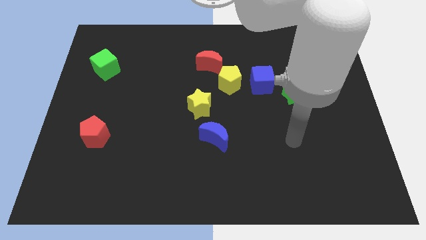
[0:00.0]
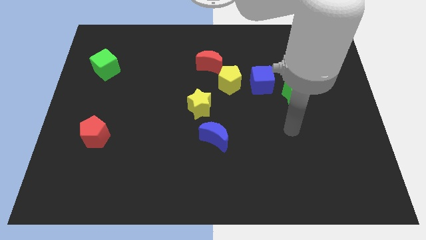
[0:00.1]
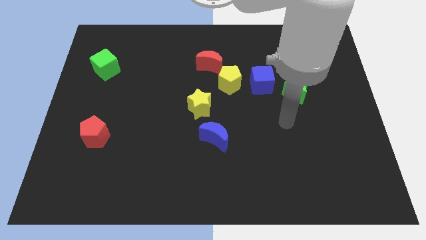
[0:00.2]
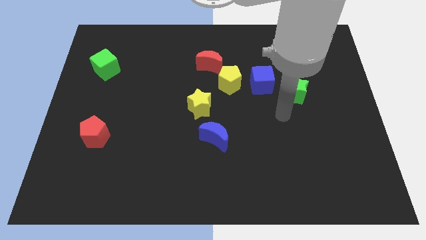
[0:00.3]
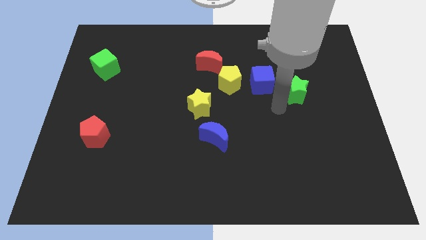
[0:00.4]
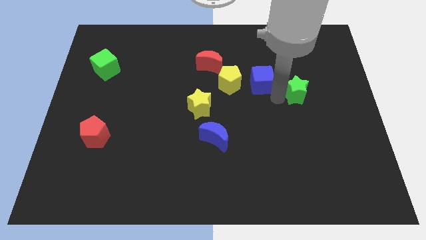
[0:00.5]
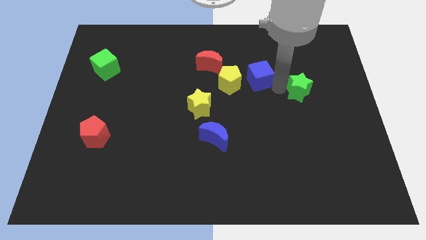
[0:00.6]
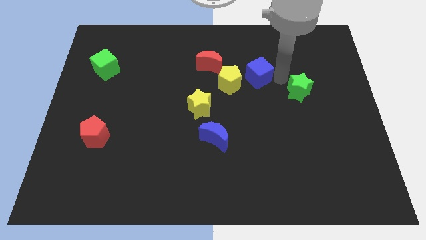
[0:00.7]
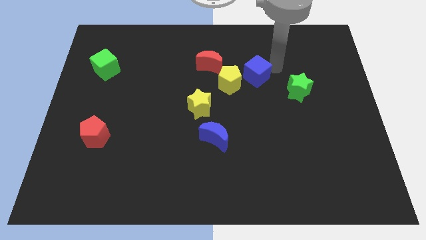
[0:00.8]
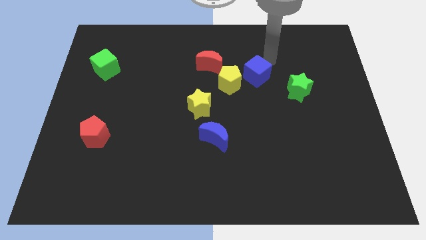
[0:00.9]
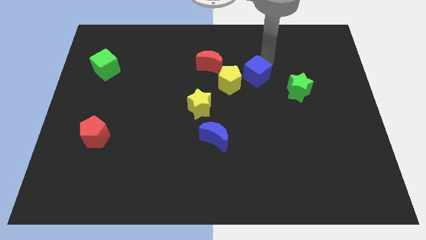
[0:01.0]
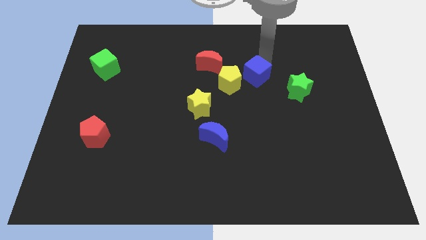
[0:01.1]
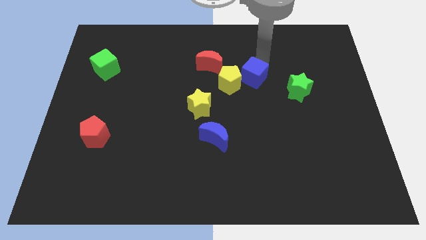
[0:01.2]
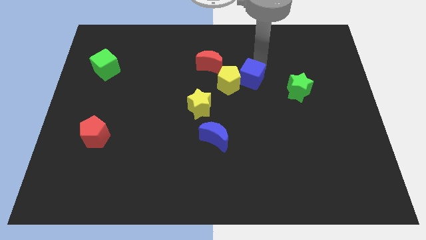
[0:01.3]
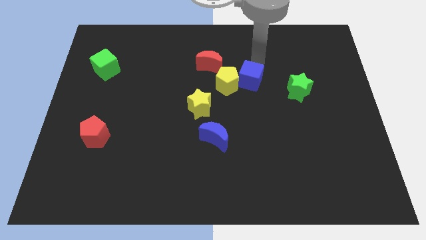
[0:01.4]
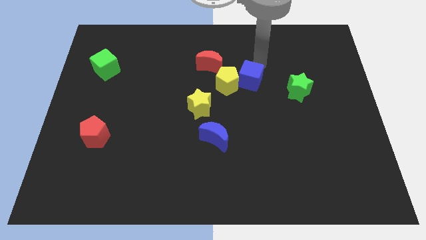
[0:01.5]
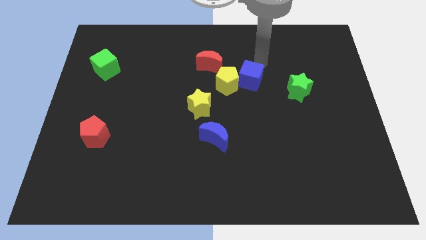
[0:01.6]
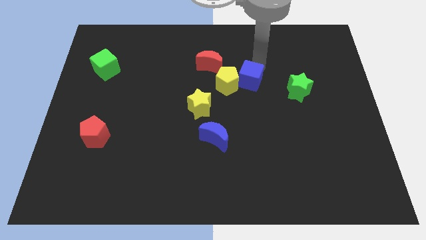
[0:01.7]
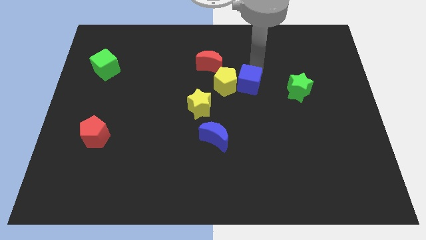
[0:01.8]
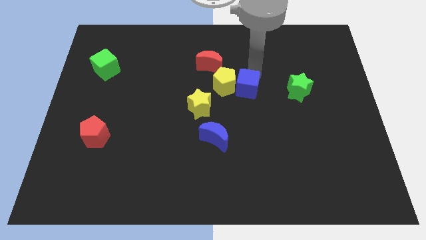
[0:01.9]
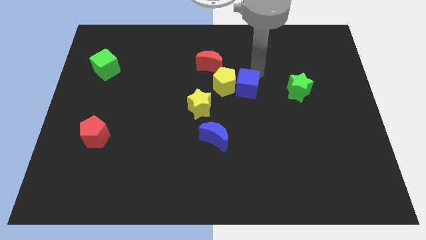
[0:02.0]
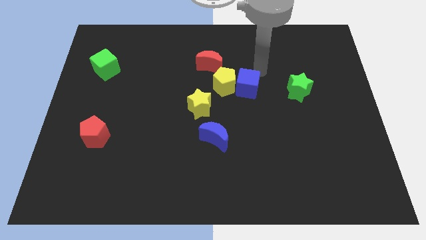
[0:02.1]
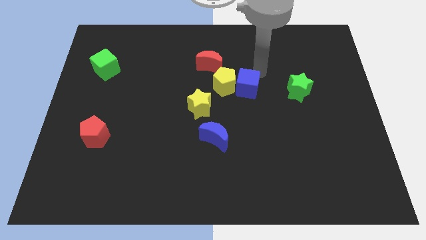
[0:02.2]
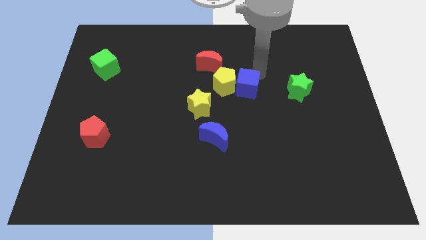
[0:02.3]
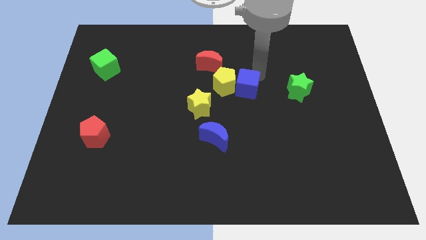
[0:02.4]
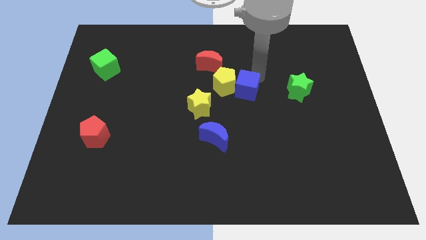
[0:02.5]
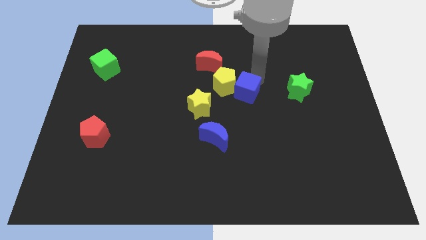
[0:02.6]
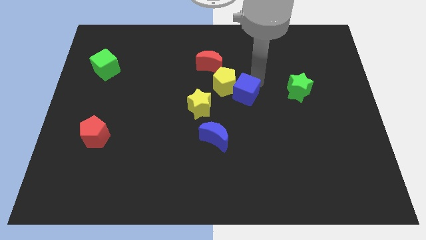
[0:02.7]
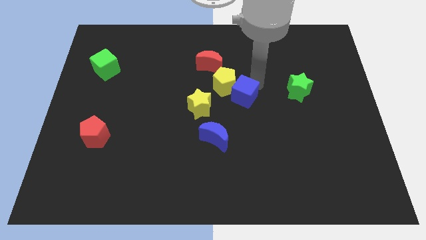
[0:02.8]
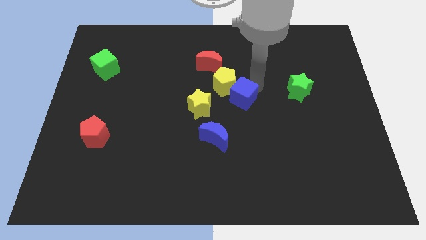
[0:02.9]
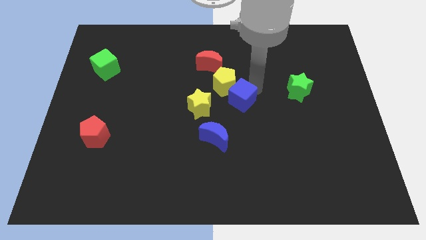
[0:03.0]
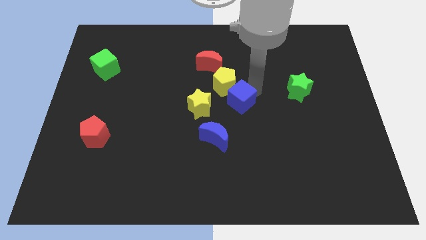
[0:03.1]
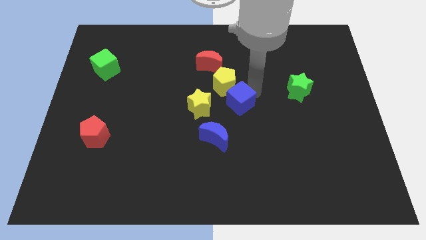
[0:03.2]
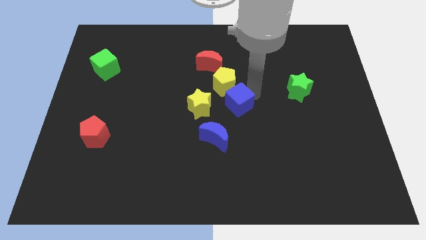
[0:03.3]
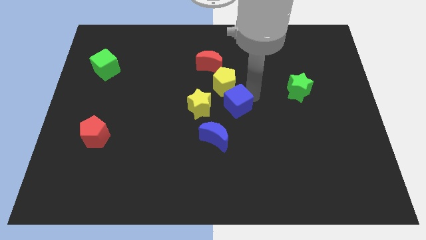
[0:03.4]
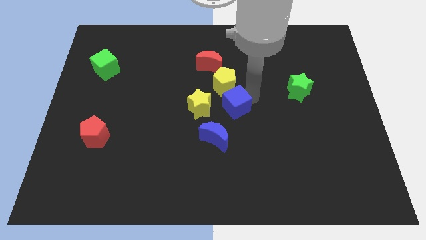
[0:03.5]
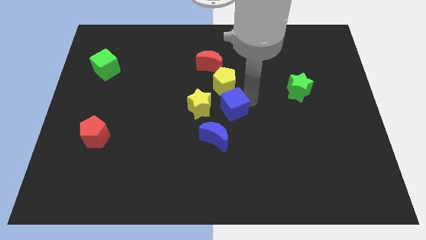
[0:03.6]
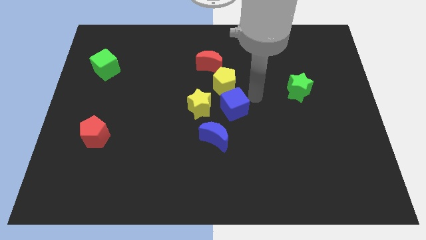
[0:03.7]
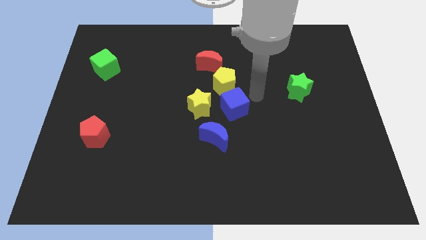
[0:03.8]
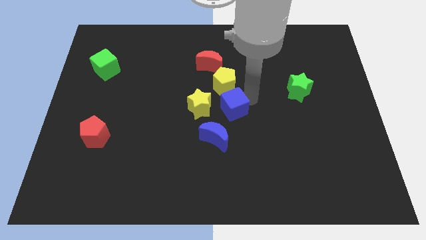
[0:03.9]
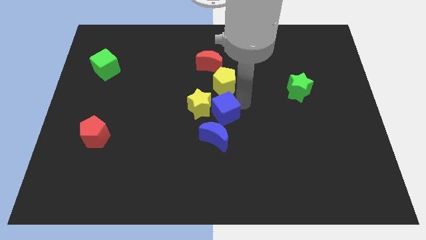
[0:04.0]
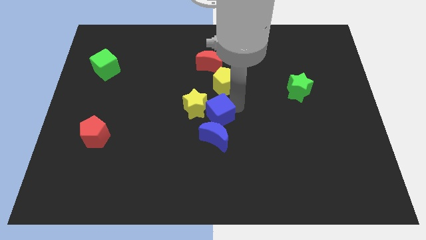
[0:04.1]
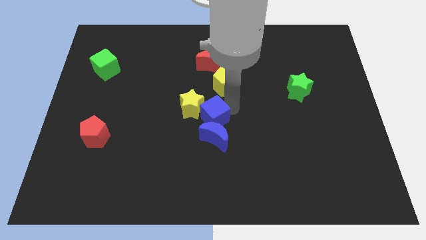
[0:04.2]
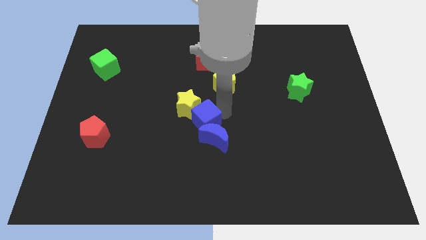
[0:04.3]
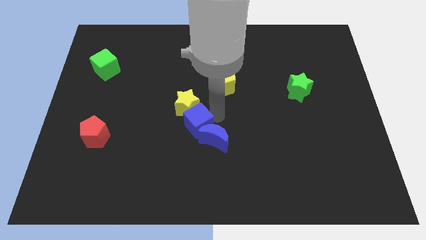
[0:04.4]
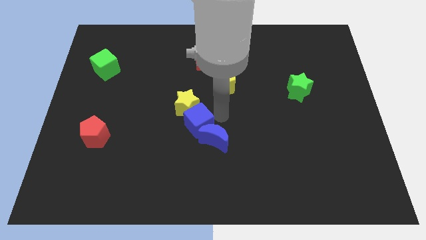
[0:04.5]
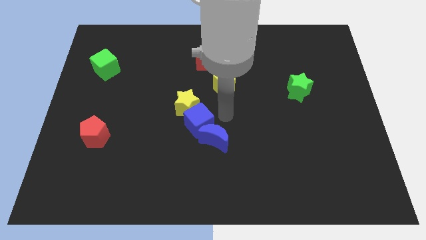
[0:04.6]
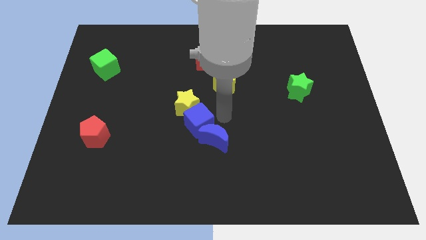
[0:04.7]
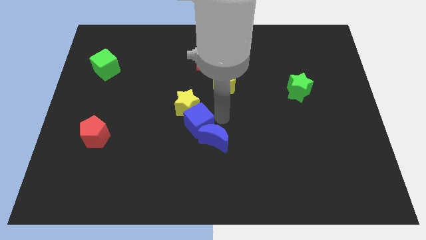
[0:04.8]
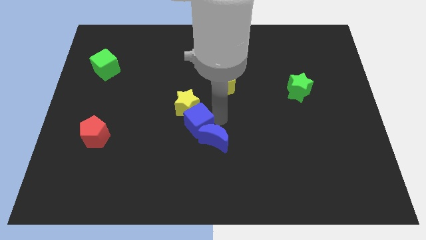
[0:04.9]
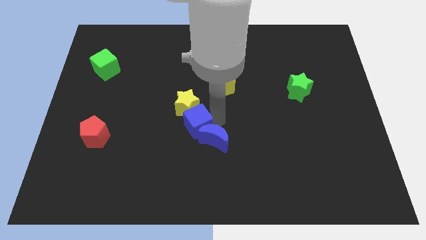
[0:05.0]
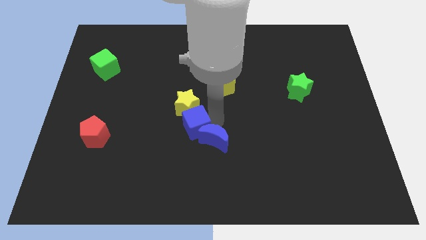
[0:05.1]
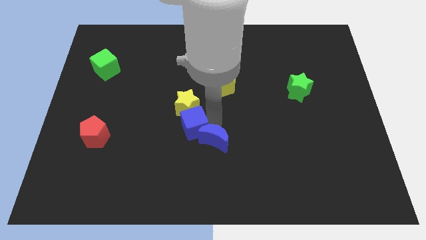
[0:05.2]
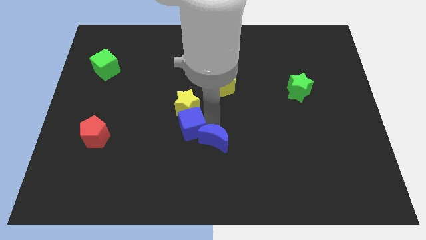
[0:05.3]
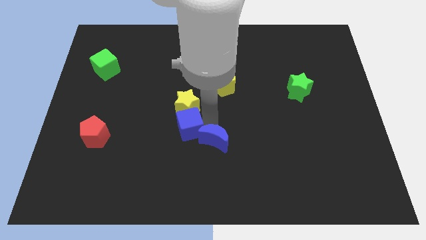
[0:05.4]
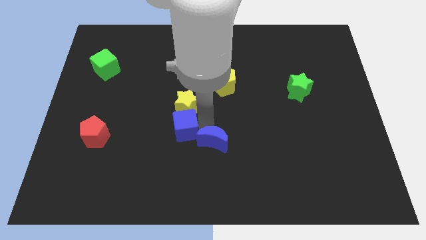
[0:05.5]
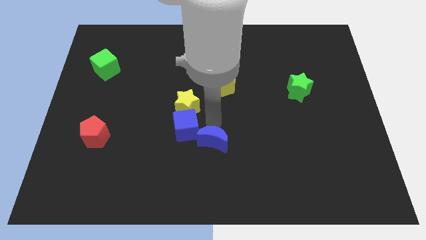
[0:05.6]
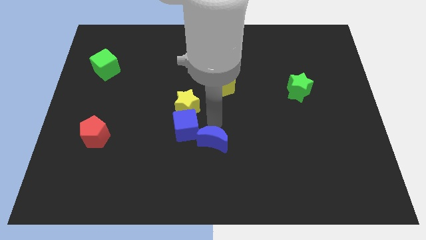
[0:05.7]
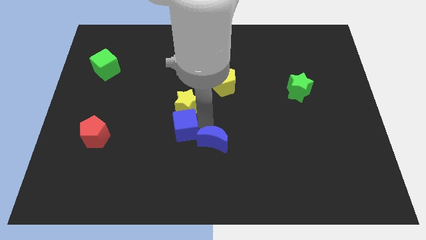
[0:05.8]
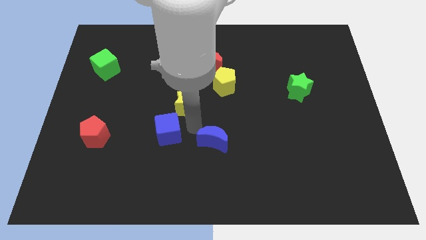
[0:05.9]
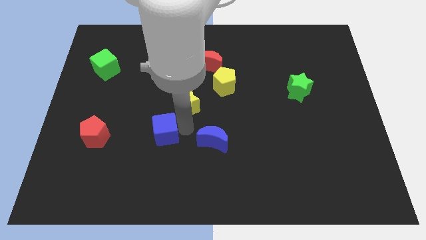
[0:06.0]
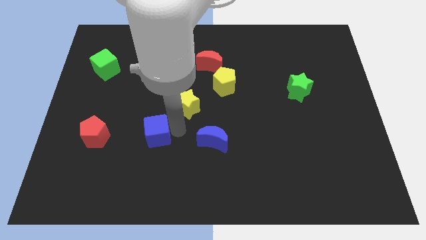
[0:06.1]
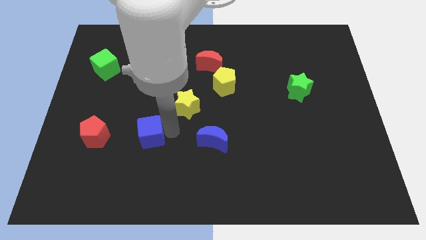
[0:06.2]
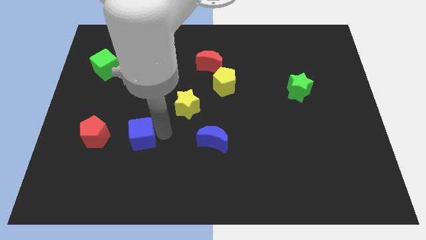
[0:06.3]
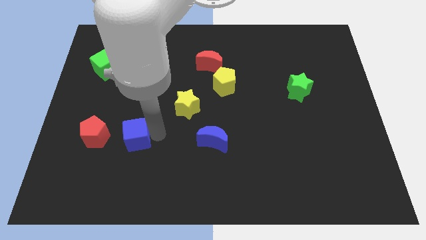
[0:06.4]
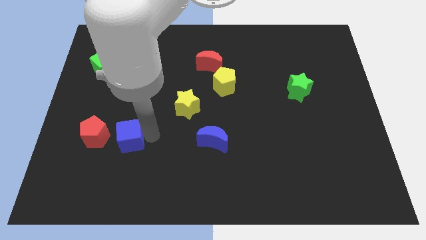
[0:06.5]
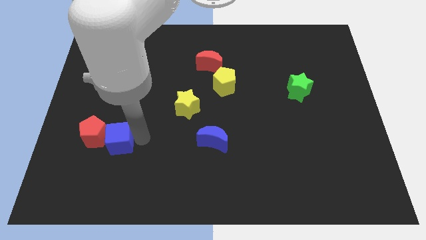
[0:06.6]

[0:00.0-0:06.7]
put the blue cube to the red pentagon
